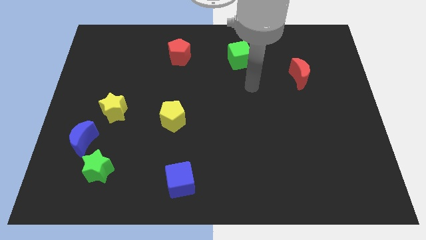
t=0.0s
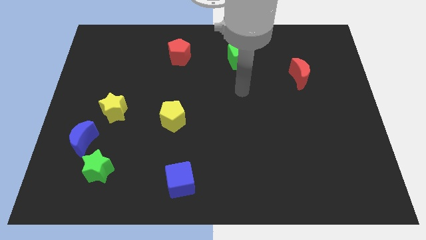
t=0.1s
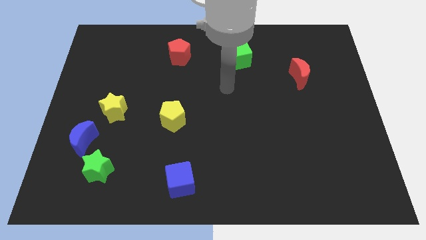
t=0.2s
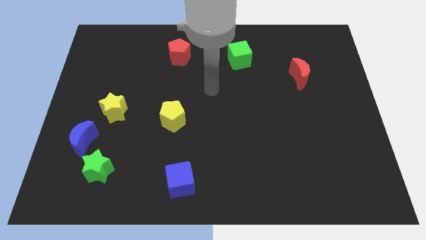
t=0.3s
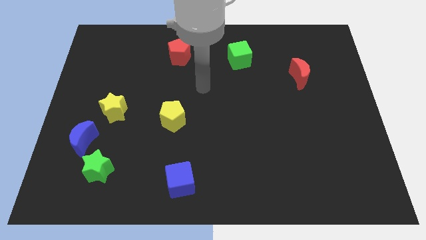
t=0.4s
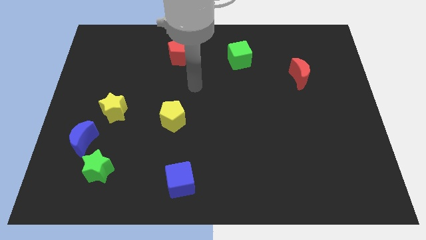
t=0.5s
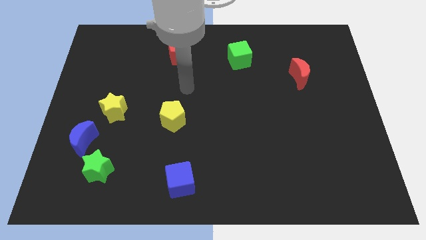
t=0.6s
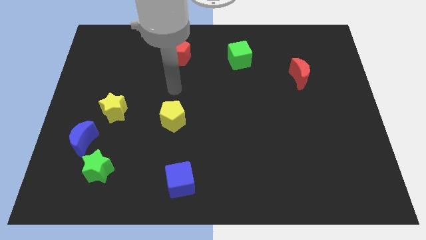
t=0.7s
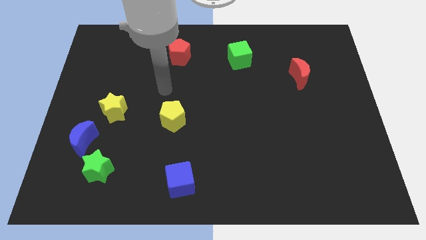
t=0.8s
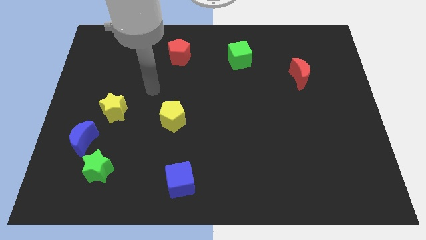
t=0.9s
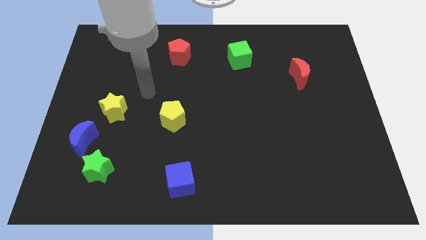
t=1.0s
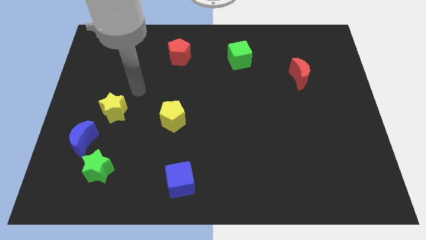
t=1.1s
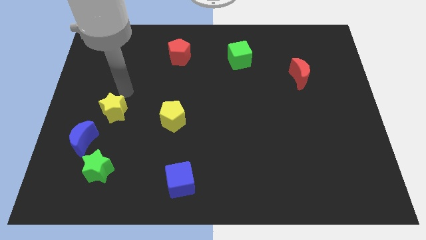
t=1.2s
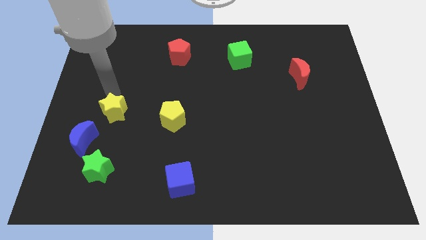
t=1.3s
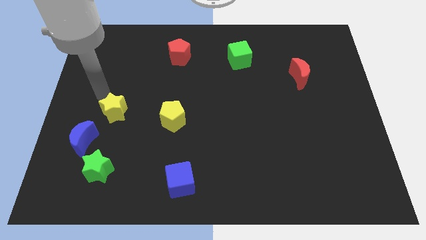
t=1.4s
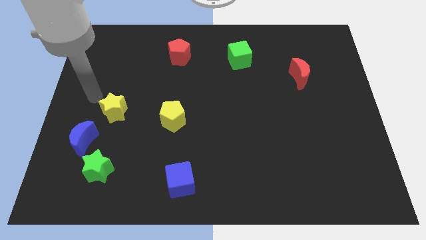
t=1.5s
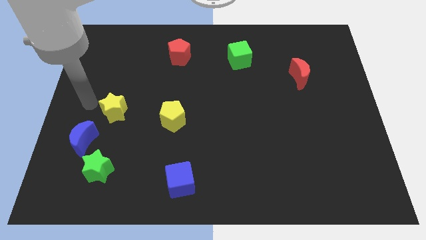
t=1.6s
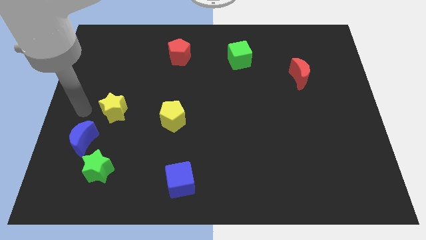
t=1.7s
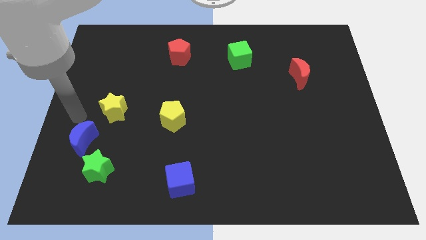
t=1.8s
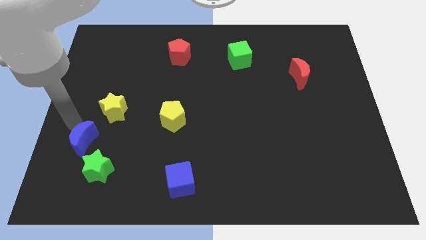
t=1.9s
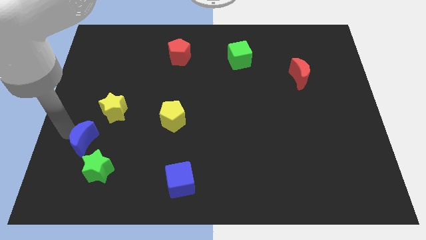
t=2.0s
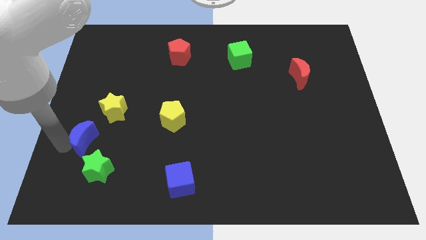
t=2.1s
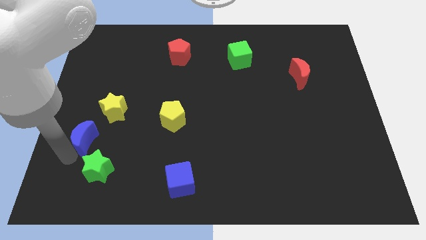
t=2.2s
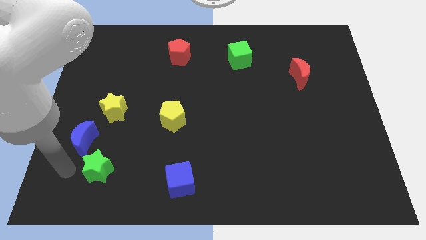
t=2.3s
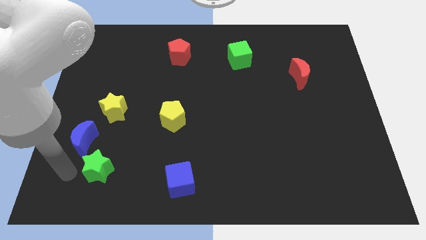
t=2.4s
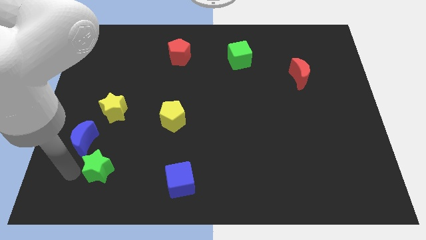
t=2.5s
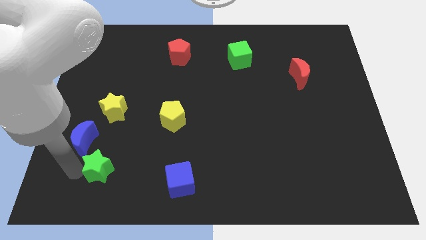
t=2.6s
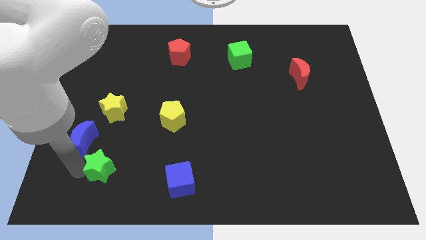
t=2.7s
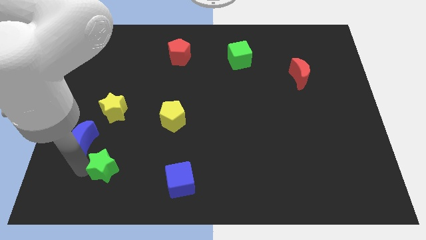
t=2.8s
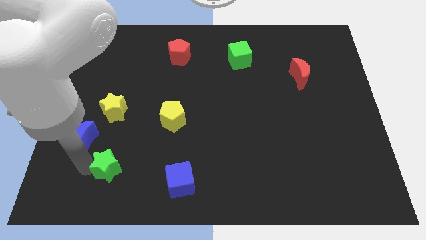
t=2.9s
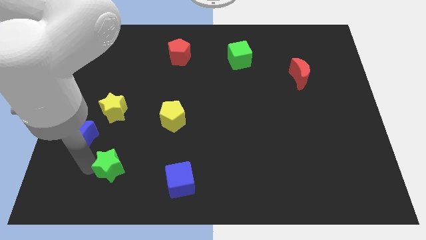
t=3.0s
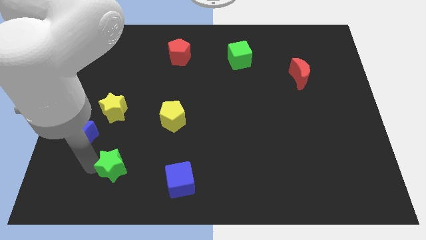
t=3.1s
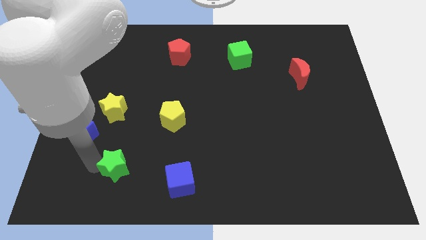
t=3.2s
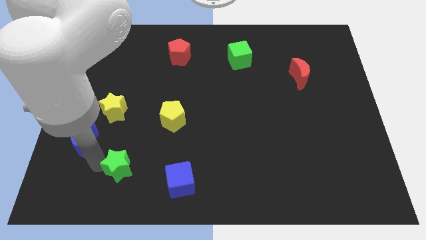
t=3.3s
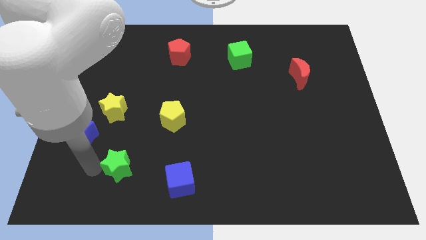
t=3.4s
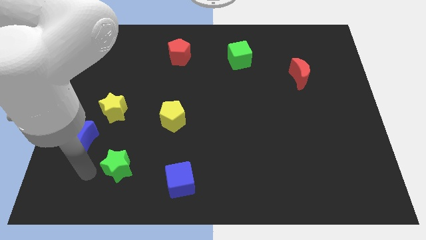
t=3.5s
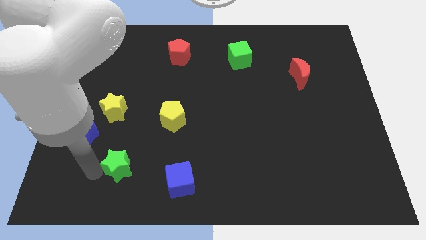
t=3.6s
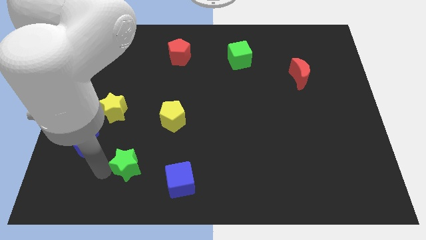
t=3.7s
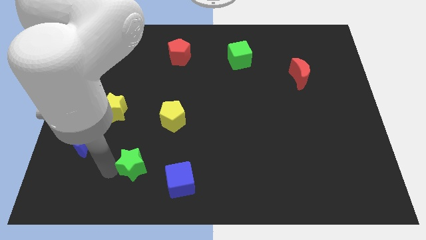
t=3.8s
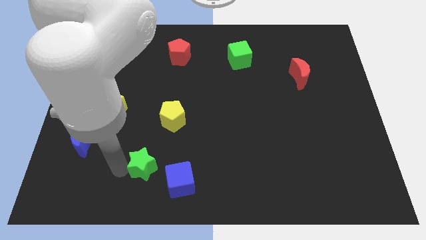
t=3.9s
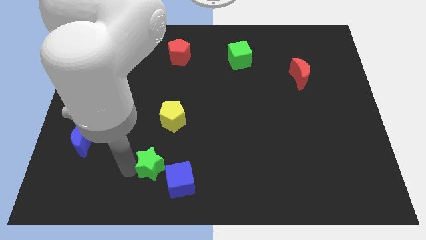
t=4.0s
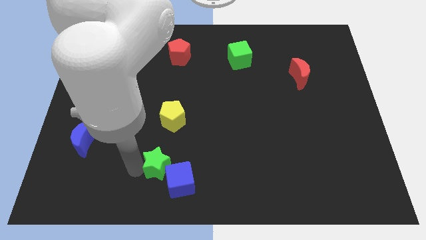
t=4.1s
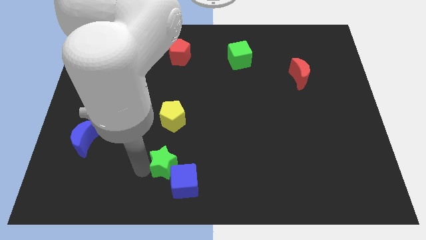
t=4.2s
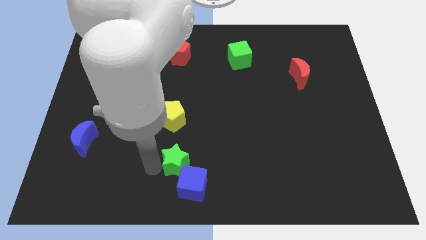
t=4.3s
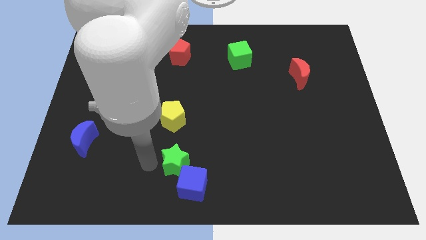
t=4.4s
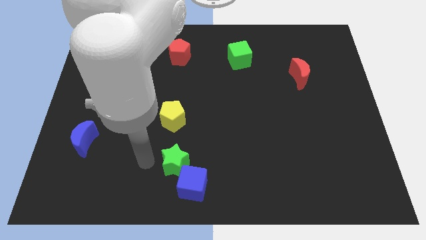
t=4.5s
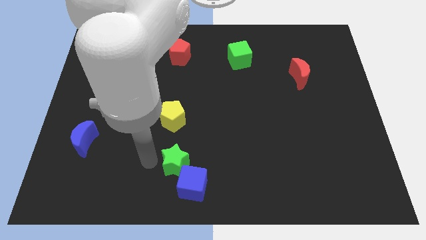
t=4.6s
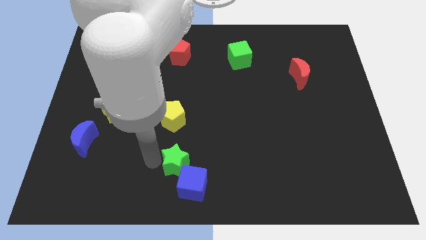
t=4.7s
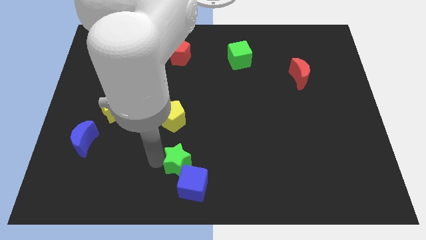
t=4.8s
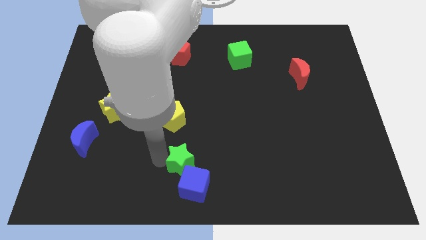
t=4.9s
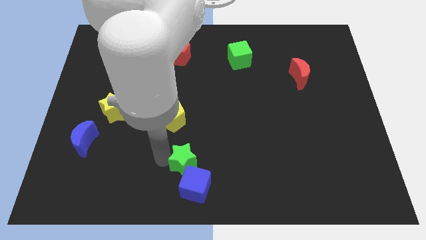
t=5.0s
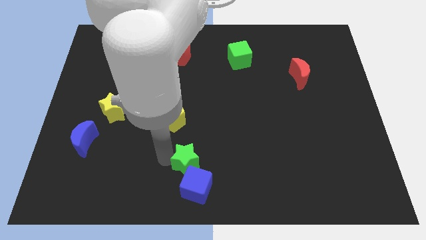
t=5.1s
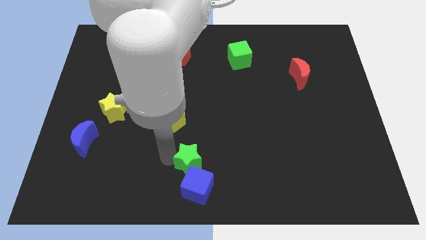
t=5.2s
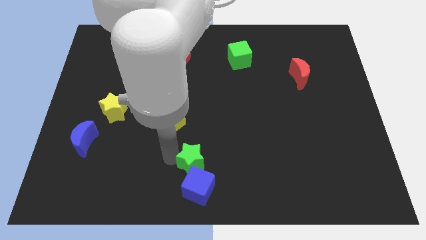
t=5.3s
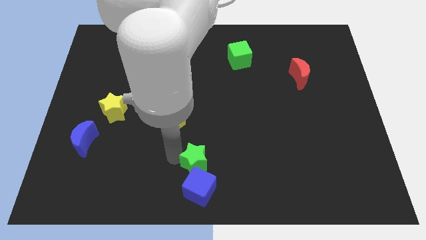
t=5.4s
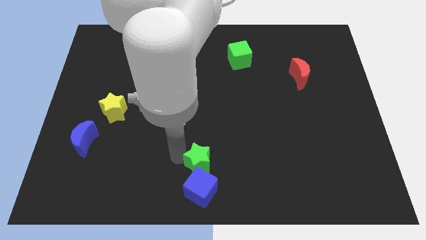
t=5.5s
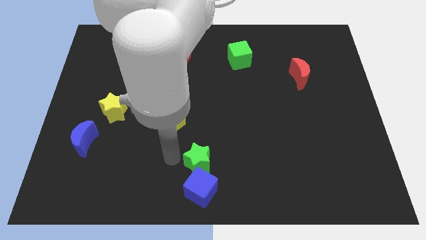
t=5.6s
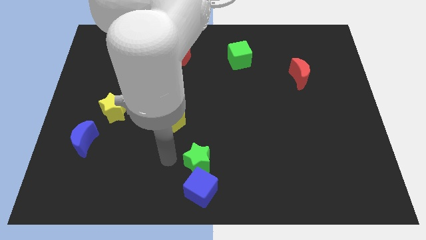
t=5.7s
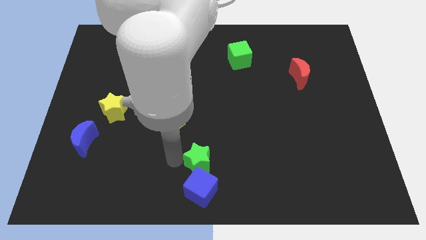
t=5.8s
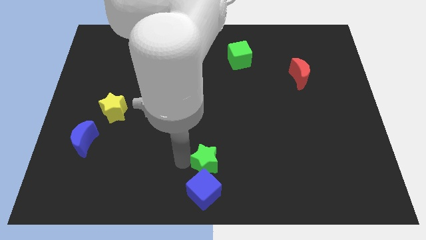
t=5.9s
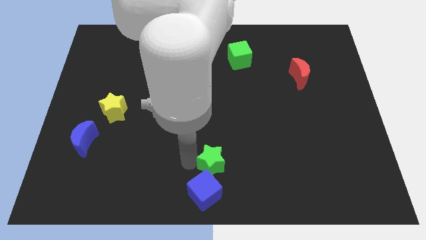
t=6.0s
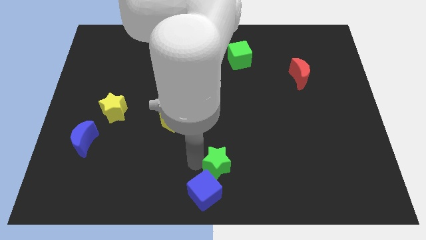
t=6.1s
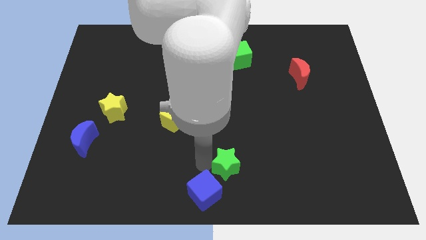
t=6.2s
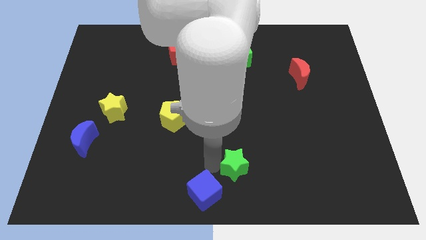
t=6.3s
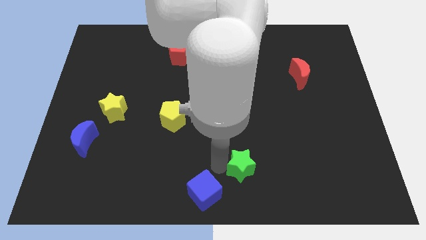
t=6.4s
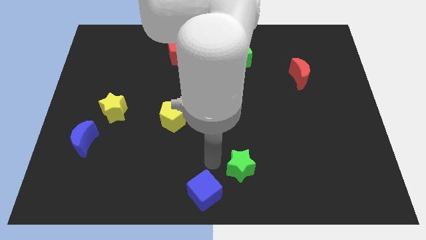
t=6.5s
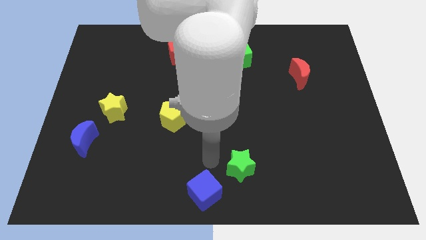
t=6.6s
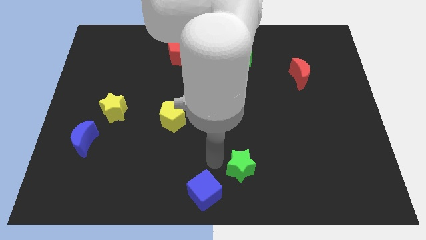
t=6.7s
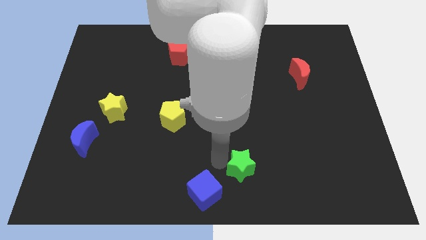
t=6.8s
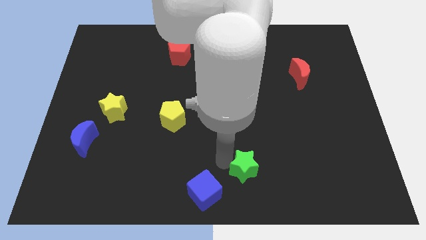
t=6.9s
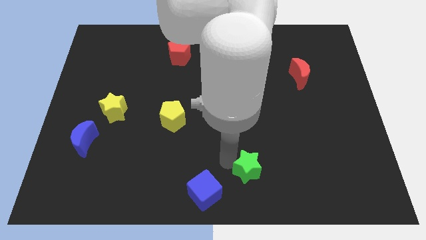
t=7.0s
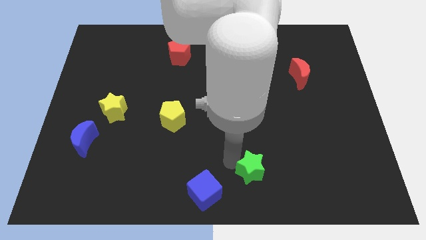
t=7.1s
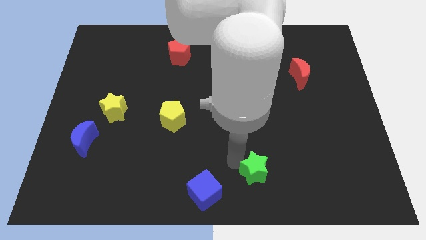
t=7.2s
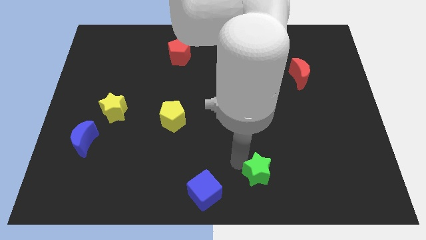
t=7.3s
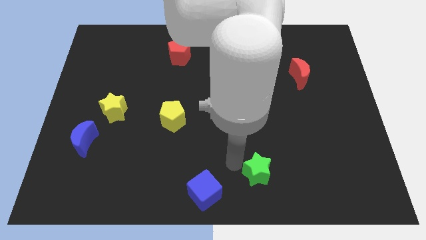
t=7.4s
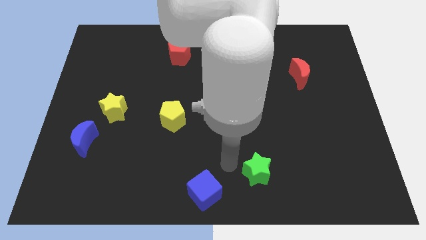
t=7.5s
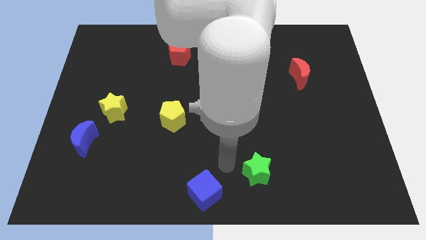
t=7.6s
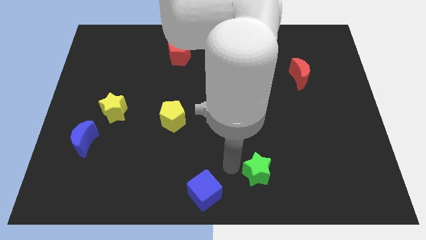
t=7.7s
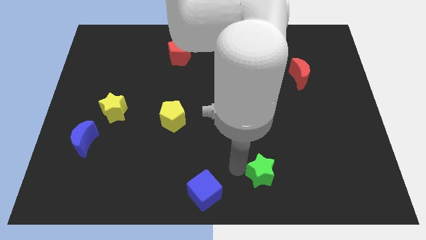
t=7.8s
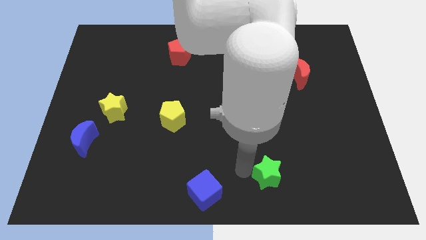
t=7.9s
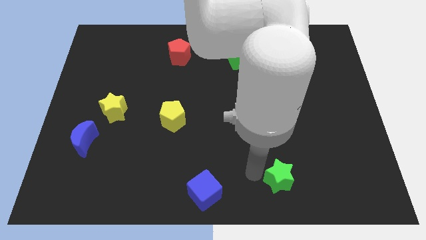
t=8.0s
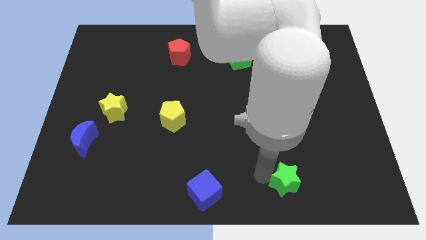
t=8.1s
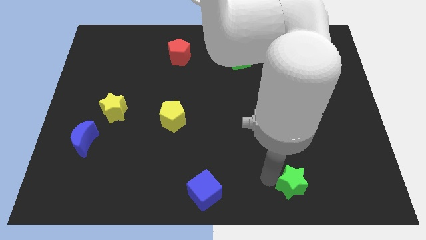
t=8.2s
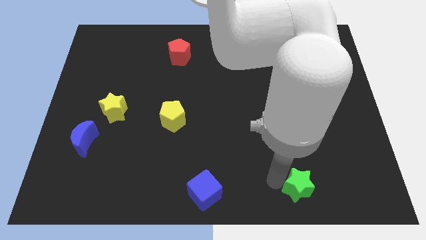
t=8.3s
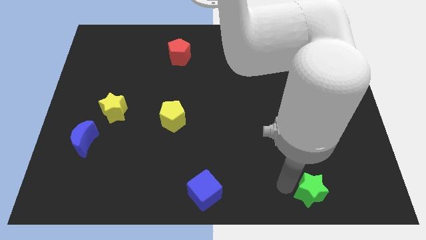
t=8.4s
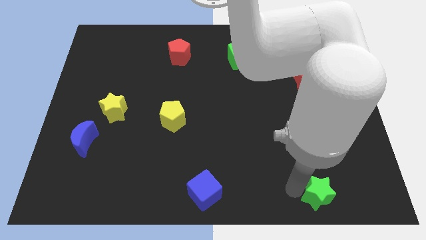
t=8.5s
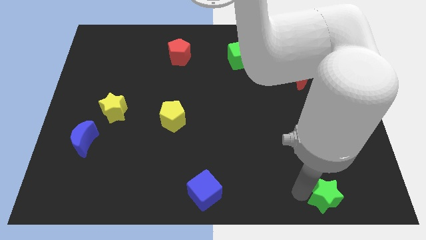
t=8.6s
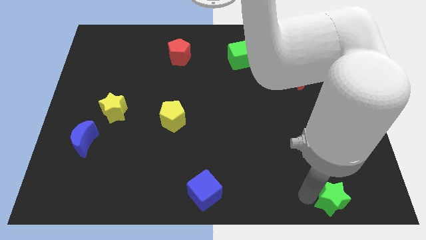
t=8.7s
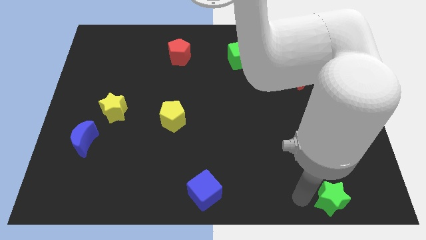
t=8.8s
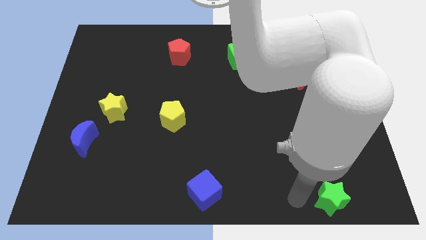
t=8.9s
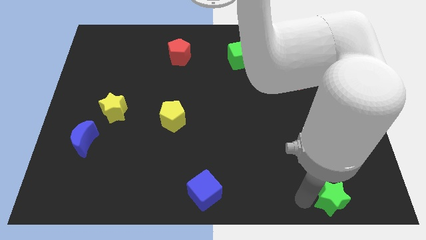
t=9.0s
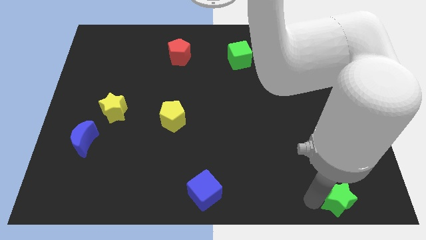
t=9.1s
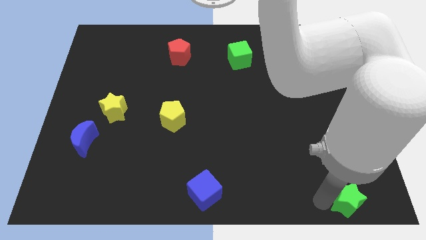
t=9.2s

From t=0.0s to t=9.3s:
slide the green star to the bottom right
